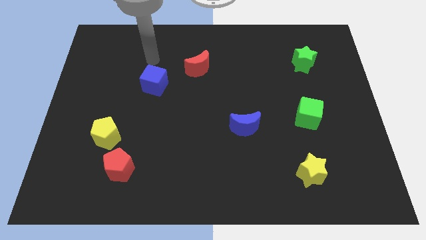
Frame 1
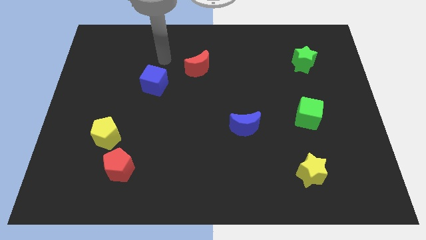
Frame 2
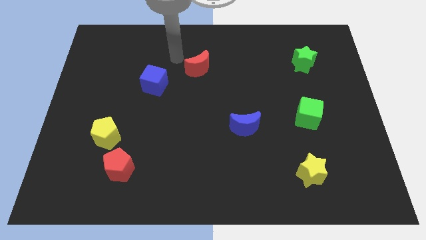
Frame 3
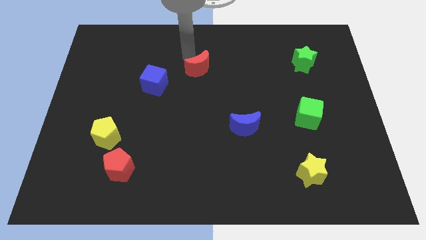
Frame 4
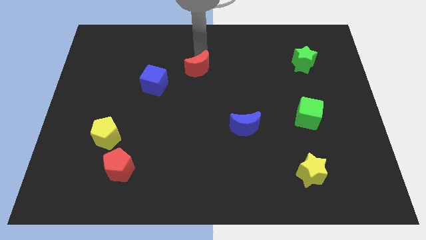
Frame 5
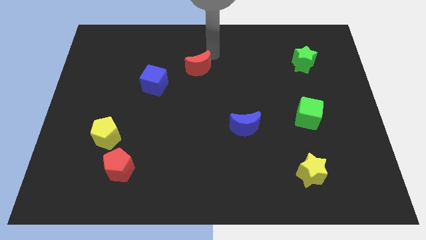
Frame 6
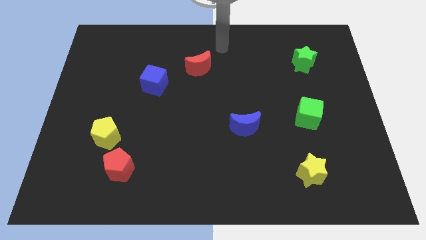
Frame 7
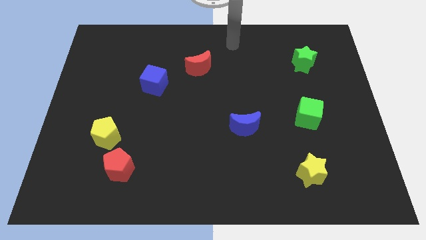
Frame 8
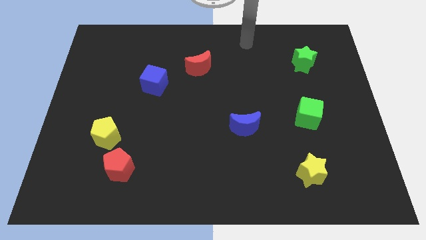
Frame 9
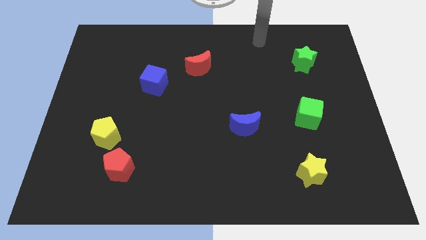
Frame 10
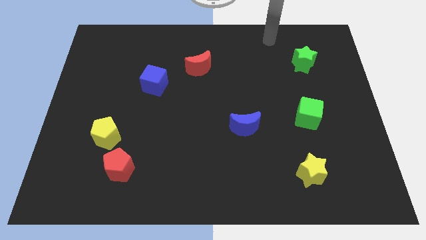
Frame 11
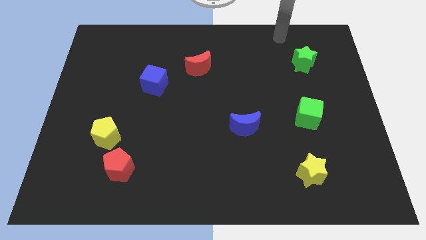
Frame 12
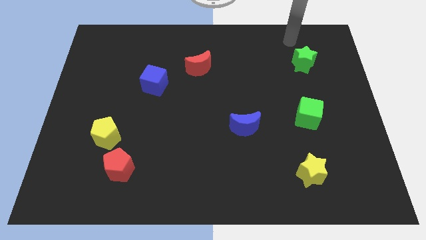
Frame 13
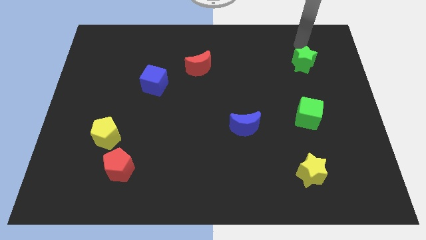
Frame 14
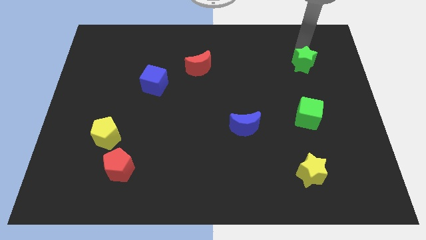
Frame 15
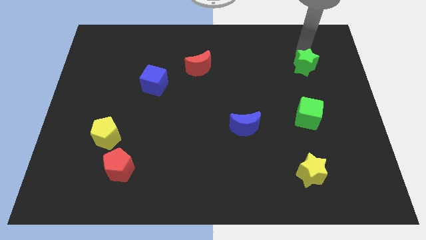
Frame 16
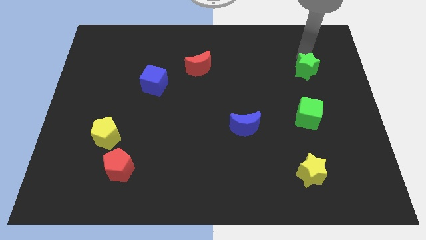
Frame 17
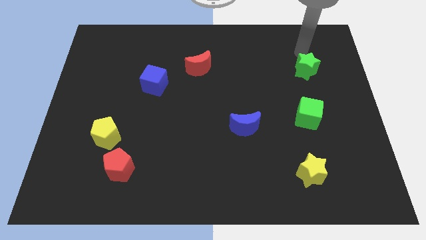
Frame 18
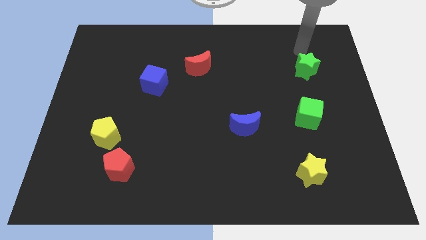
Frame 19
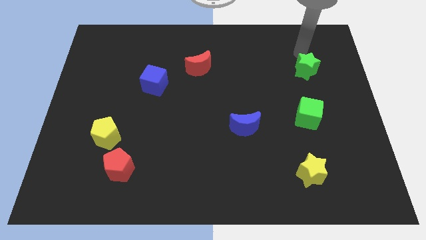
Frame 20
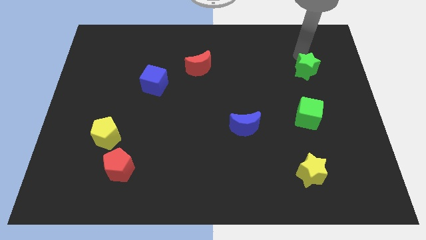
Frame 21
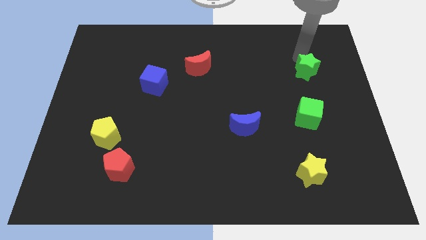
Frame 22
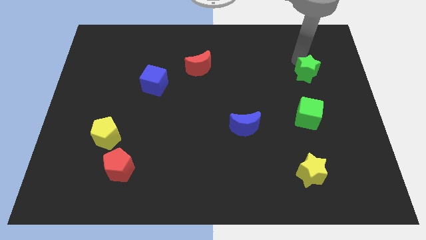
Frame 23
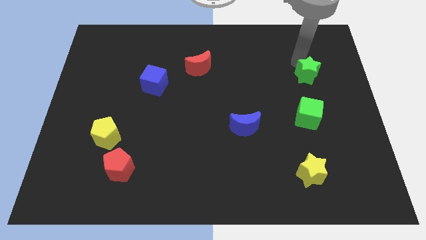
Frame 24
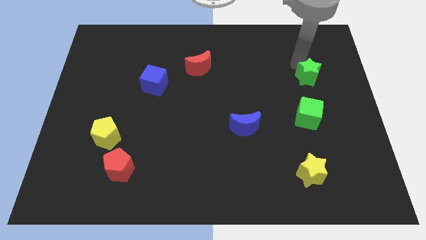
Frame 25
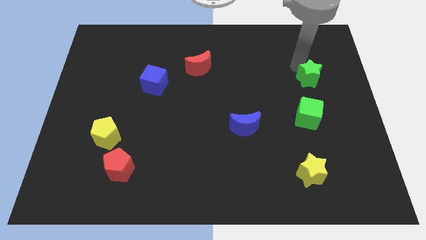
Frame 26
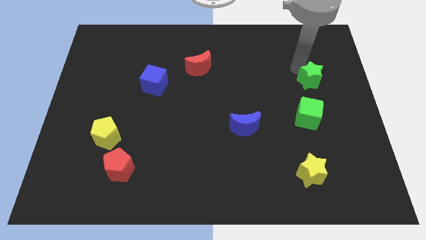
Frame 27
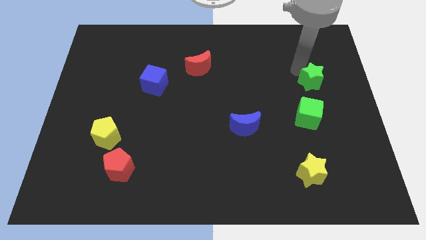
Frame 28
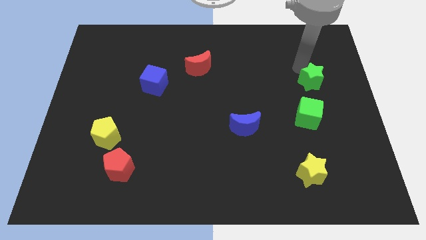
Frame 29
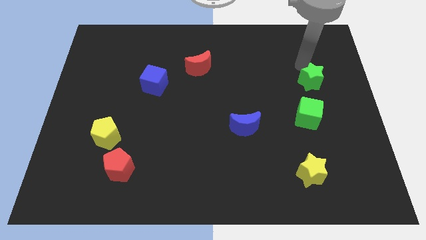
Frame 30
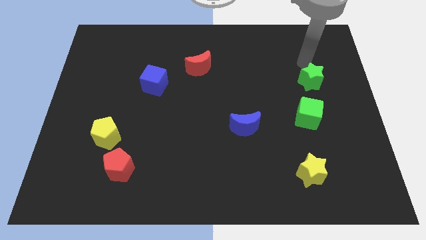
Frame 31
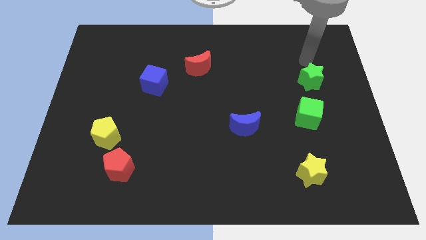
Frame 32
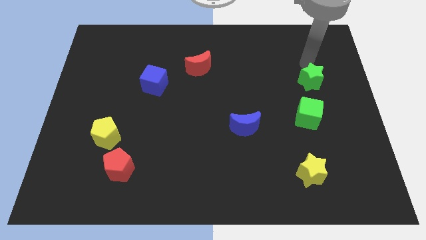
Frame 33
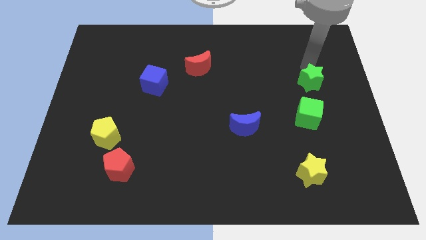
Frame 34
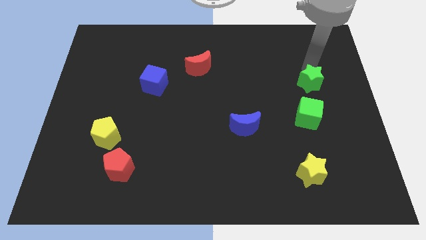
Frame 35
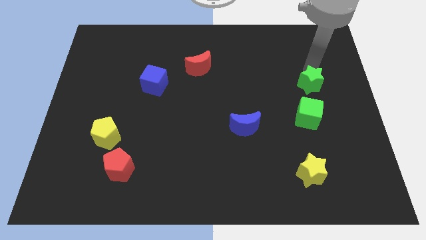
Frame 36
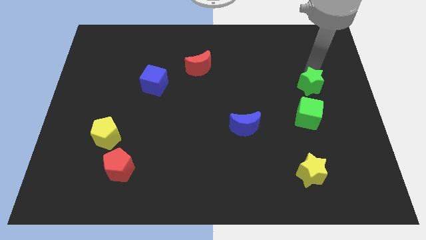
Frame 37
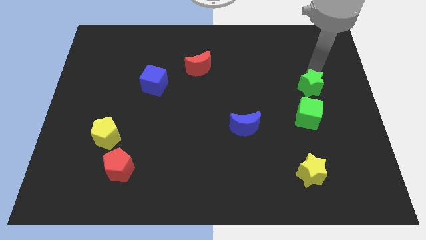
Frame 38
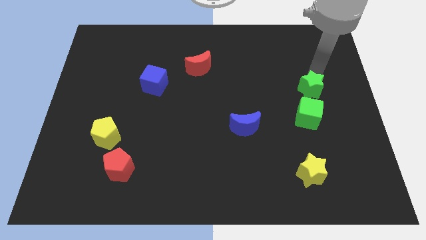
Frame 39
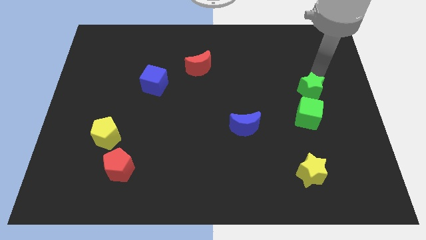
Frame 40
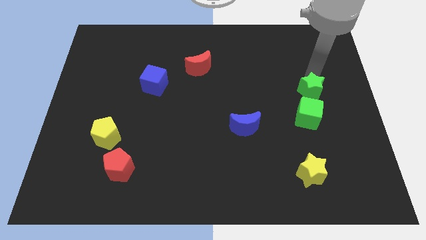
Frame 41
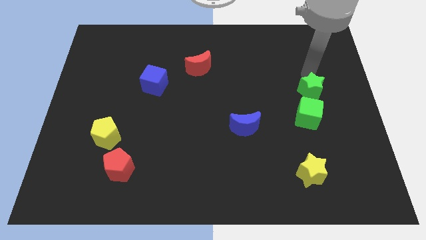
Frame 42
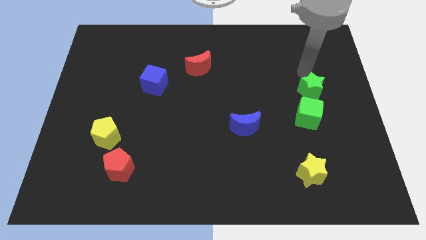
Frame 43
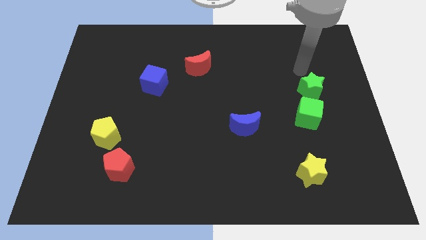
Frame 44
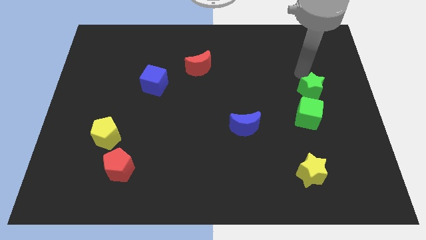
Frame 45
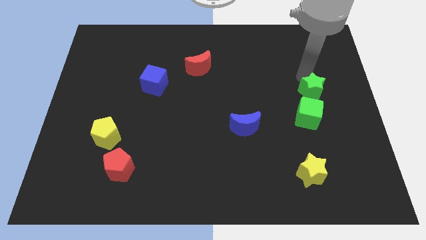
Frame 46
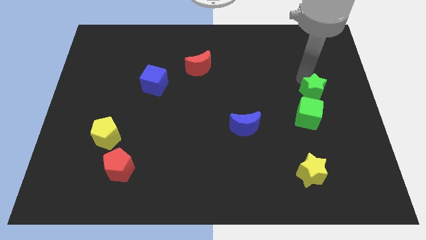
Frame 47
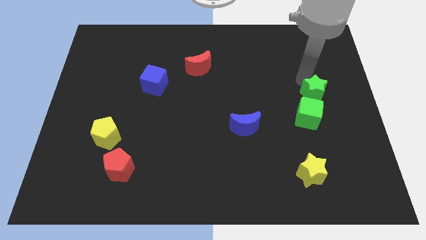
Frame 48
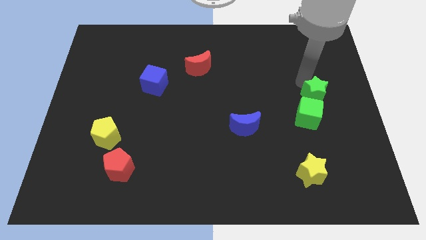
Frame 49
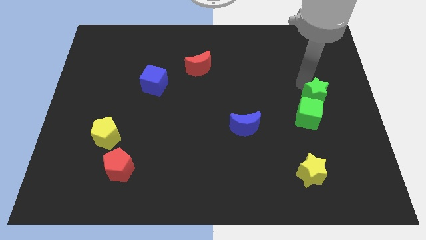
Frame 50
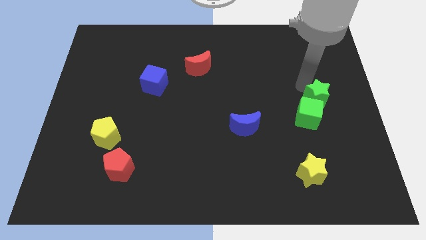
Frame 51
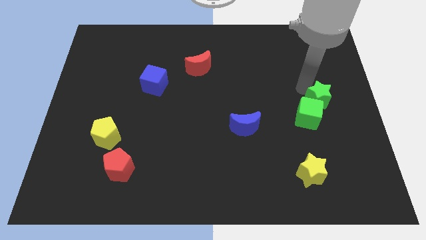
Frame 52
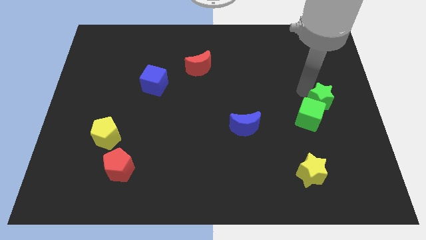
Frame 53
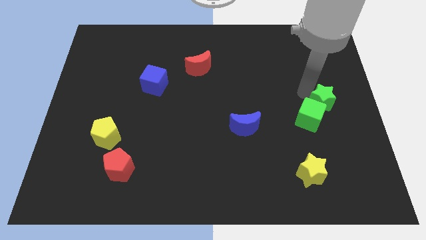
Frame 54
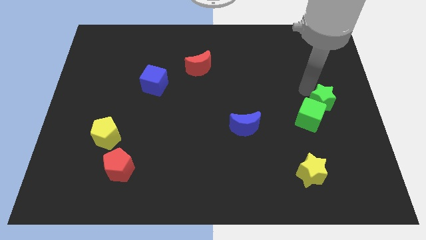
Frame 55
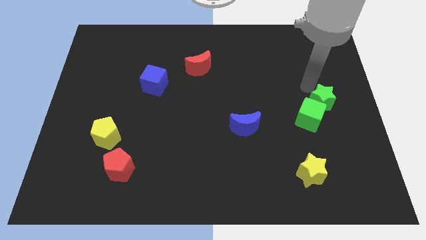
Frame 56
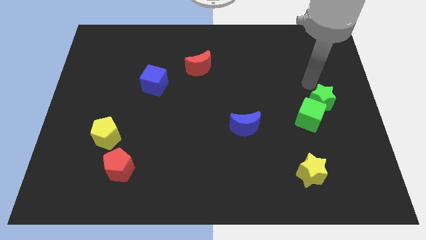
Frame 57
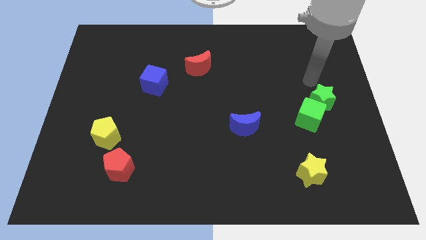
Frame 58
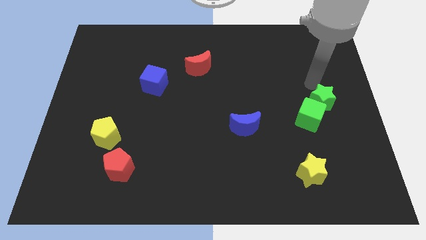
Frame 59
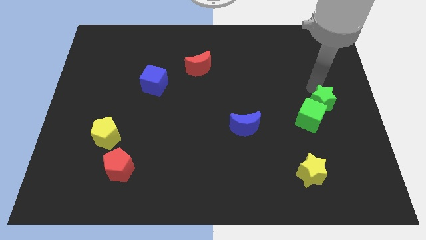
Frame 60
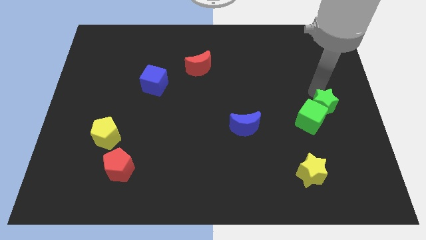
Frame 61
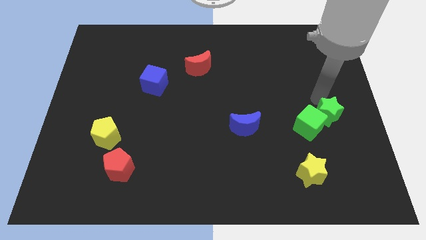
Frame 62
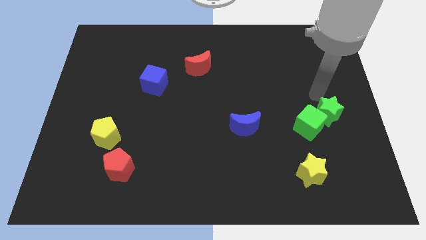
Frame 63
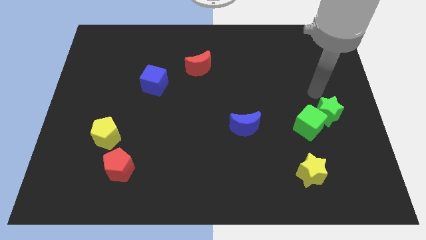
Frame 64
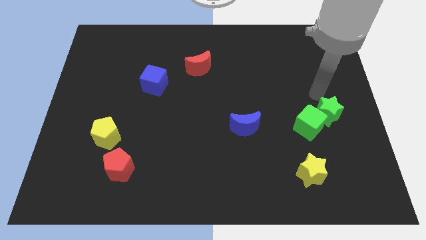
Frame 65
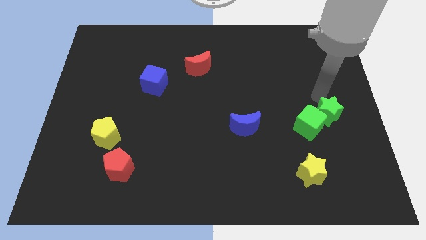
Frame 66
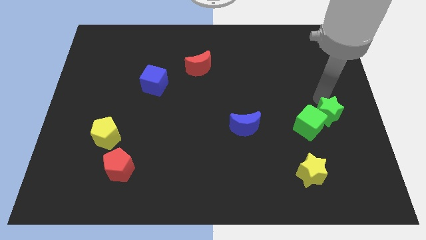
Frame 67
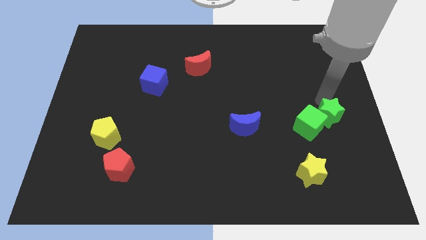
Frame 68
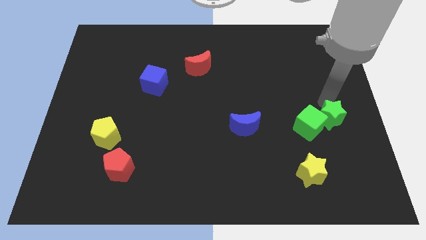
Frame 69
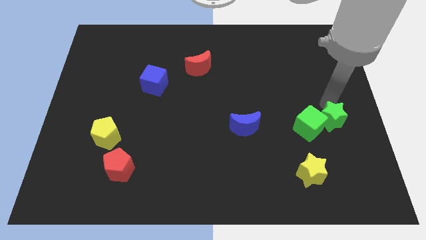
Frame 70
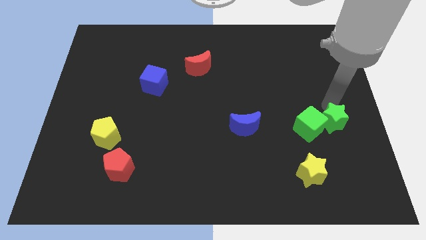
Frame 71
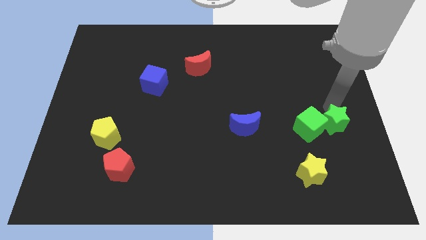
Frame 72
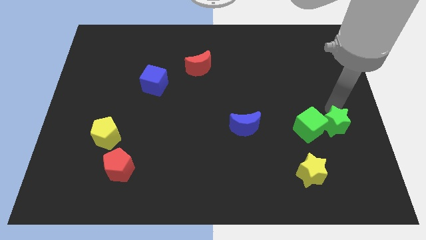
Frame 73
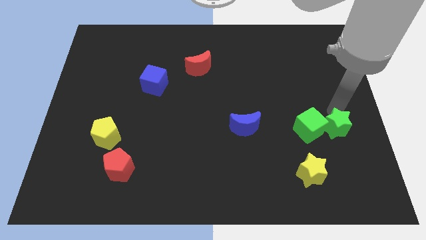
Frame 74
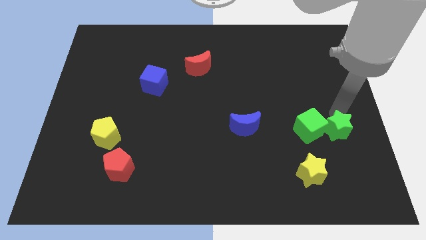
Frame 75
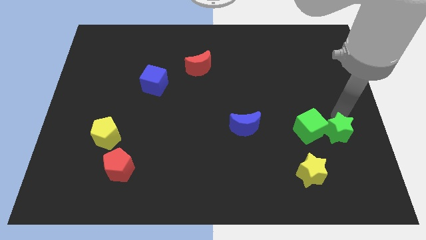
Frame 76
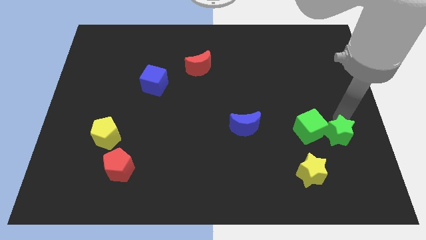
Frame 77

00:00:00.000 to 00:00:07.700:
put the green star diagonally up and to the right of the yellow star
